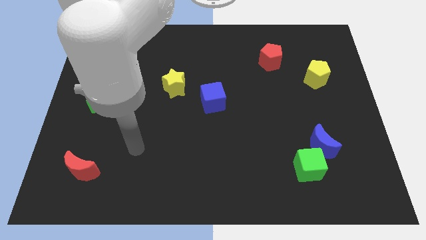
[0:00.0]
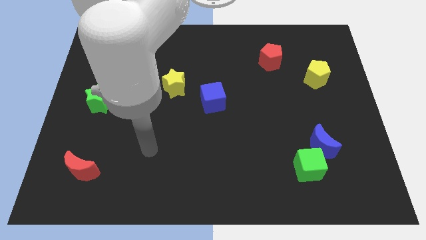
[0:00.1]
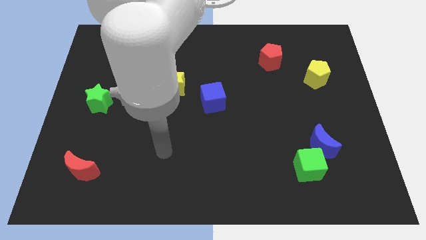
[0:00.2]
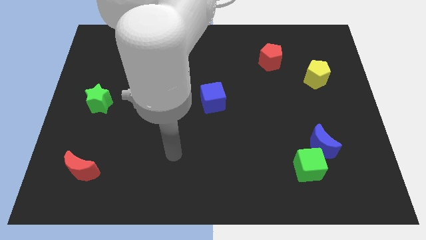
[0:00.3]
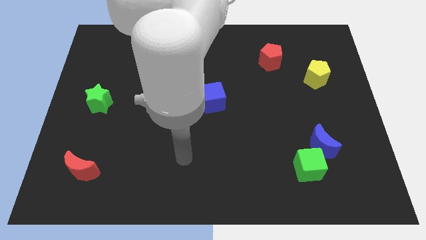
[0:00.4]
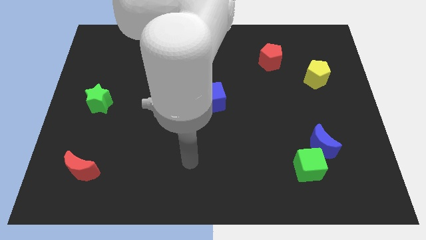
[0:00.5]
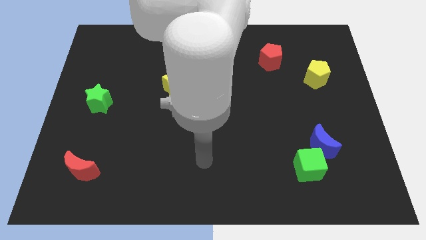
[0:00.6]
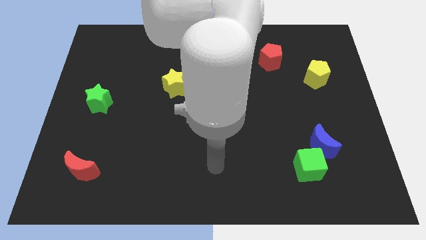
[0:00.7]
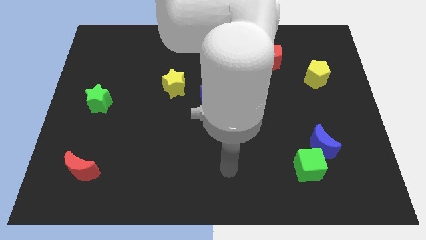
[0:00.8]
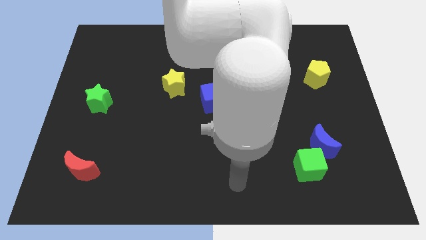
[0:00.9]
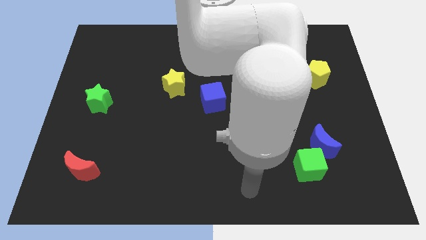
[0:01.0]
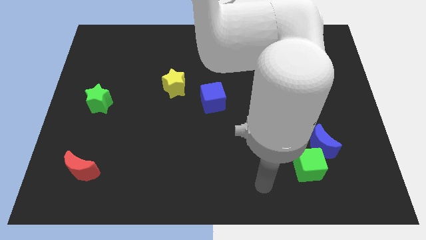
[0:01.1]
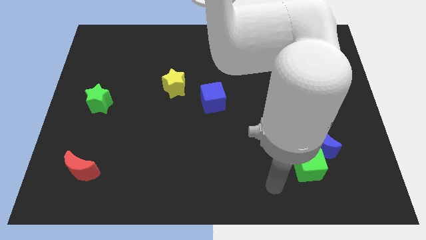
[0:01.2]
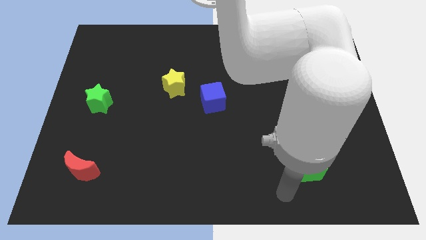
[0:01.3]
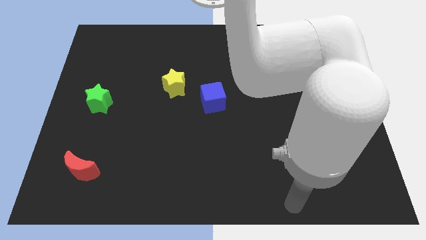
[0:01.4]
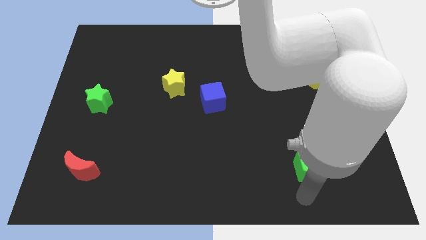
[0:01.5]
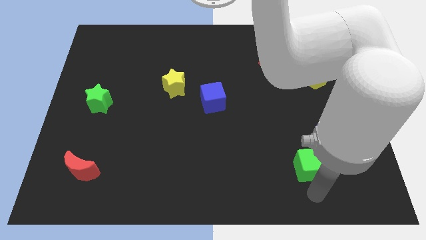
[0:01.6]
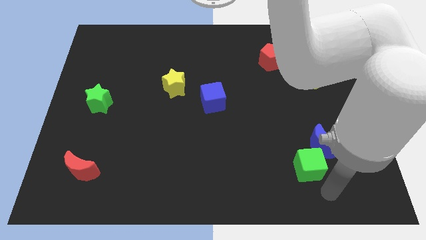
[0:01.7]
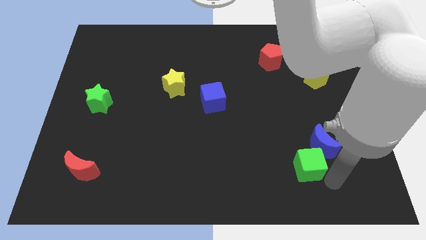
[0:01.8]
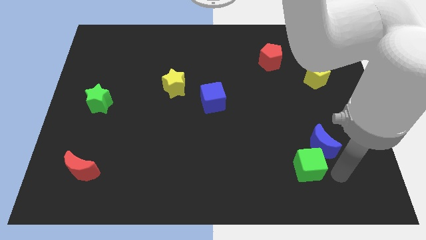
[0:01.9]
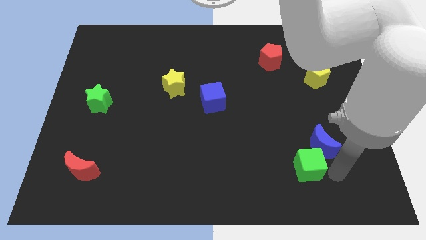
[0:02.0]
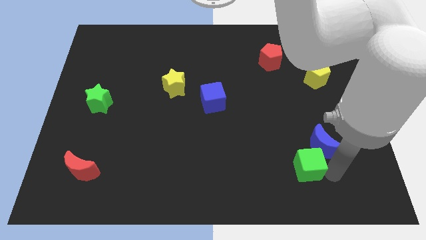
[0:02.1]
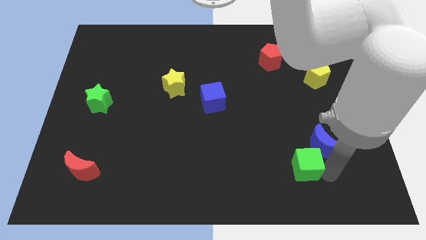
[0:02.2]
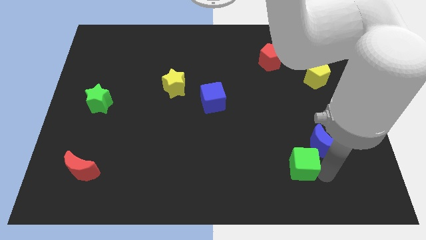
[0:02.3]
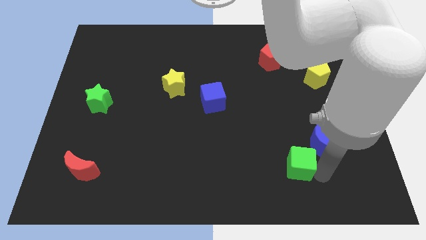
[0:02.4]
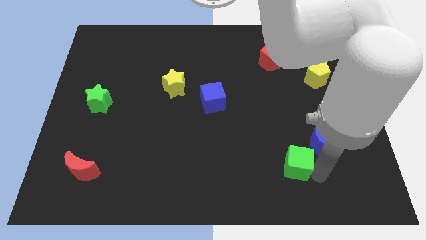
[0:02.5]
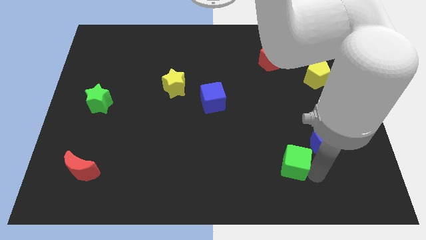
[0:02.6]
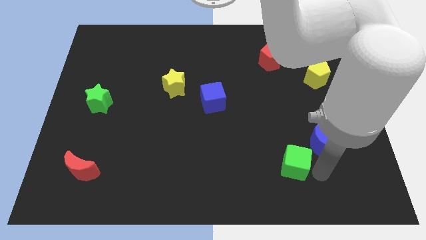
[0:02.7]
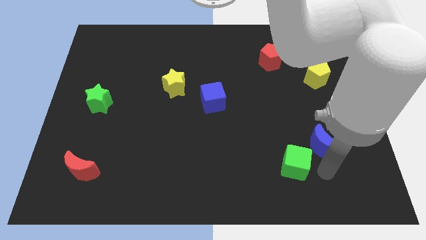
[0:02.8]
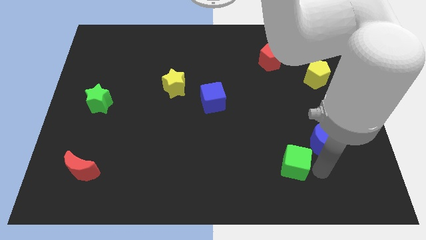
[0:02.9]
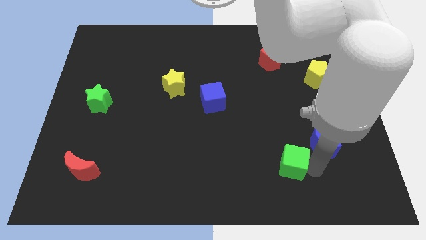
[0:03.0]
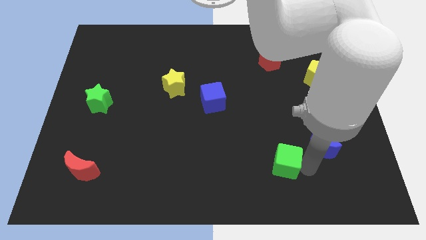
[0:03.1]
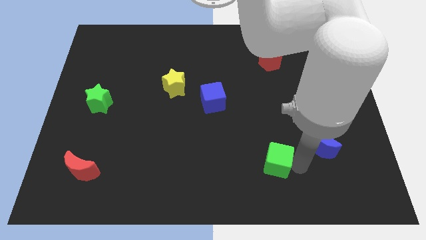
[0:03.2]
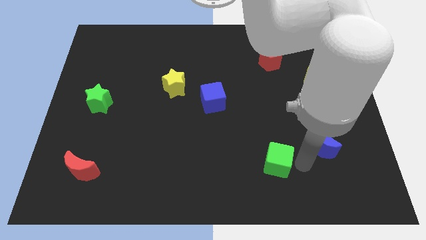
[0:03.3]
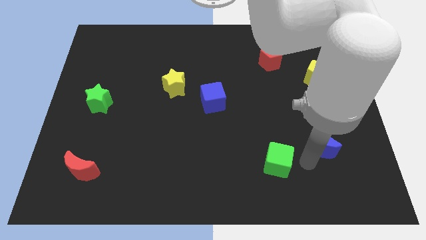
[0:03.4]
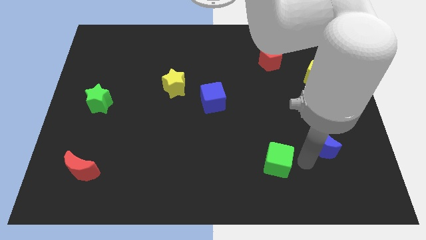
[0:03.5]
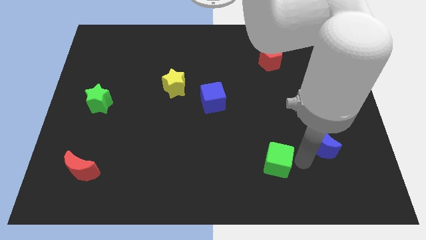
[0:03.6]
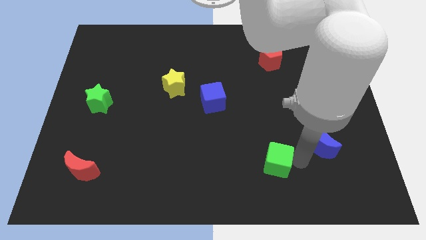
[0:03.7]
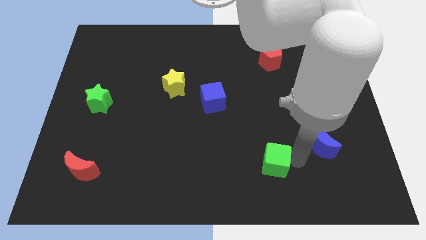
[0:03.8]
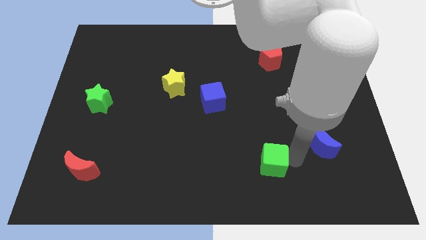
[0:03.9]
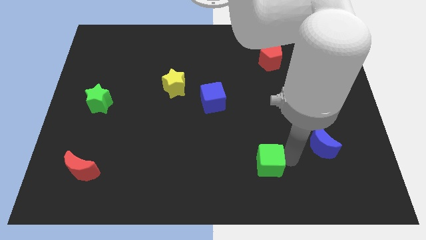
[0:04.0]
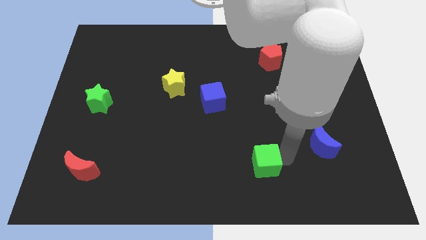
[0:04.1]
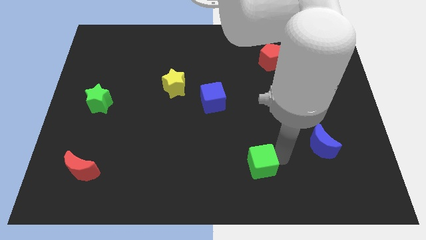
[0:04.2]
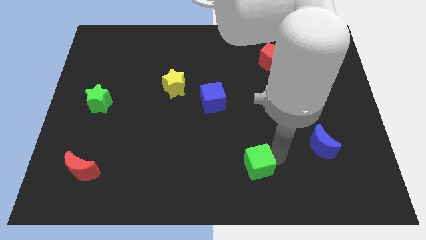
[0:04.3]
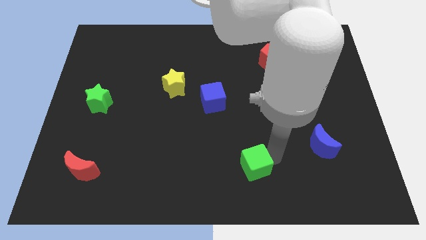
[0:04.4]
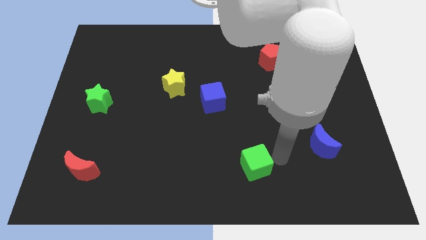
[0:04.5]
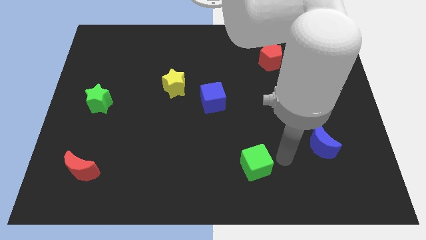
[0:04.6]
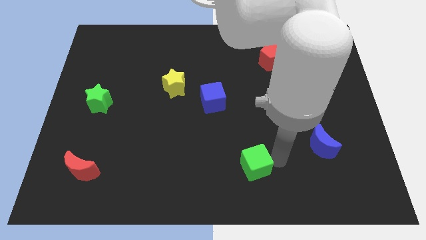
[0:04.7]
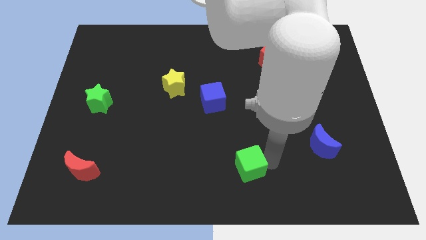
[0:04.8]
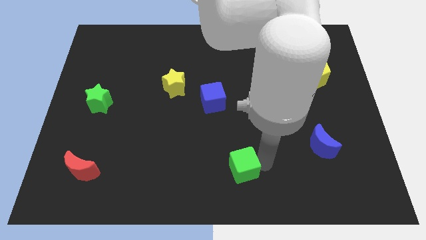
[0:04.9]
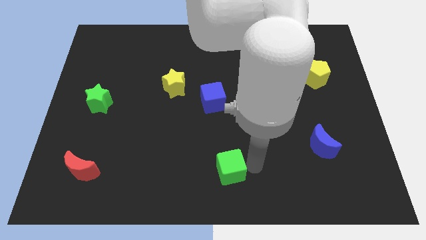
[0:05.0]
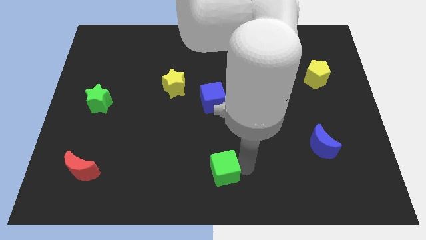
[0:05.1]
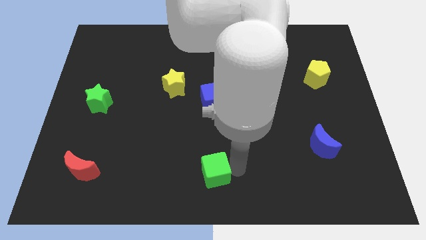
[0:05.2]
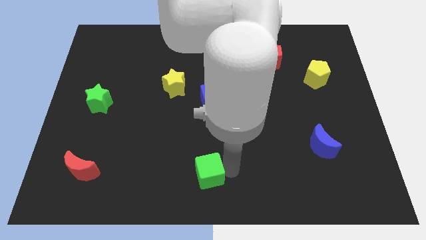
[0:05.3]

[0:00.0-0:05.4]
move the green cube to the left
